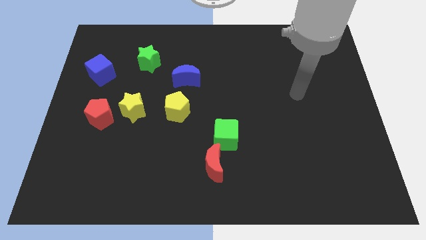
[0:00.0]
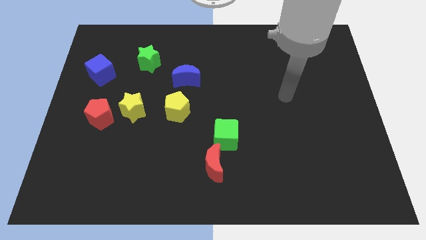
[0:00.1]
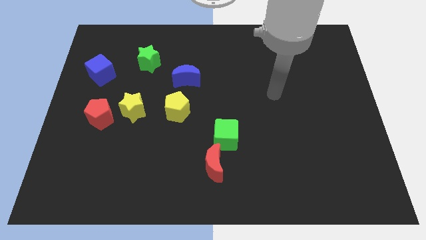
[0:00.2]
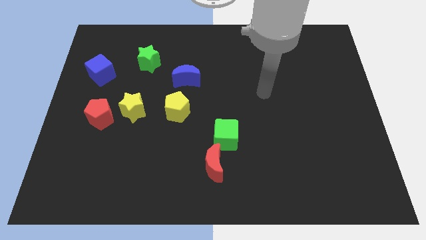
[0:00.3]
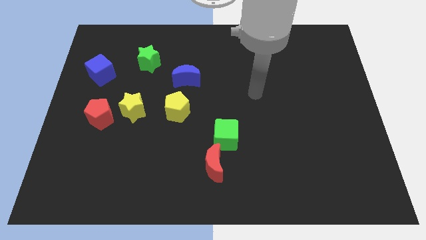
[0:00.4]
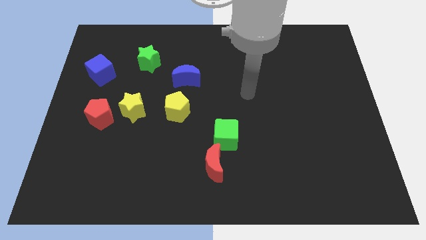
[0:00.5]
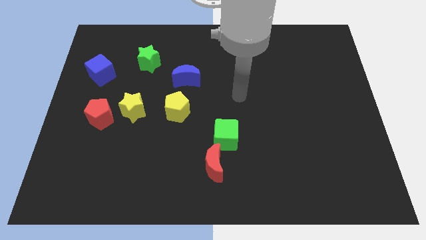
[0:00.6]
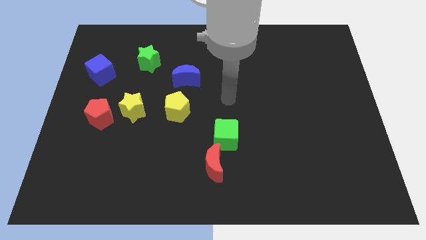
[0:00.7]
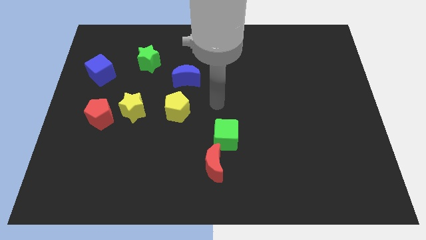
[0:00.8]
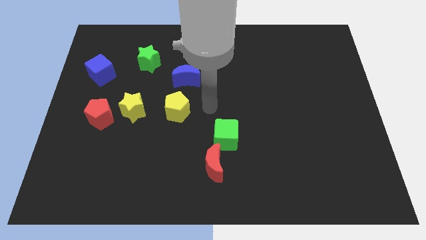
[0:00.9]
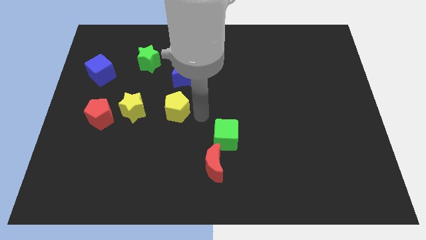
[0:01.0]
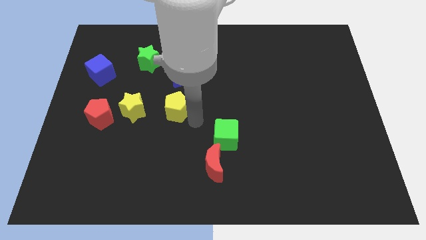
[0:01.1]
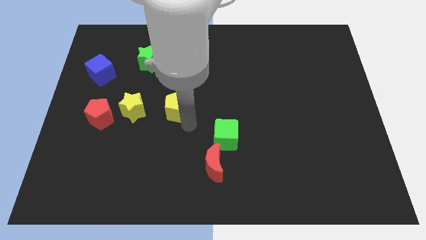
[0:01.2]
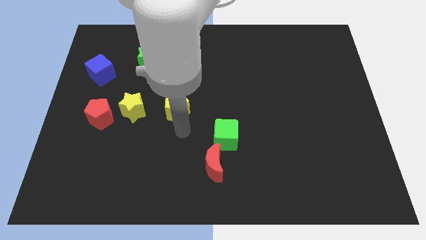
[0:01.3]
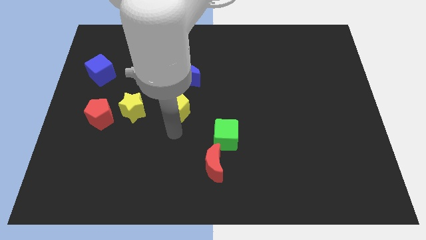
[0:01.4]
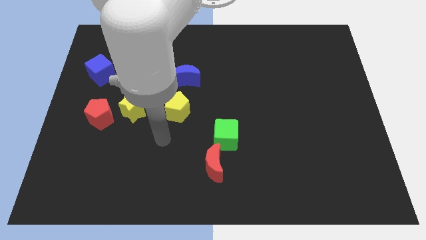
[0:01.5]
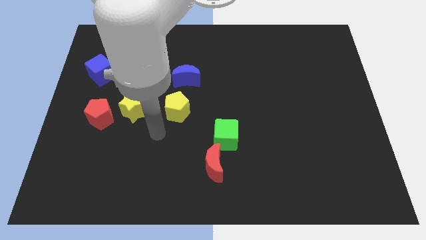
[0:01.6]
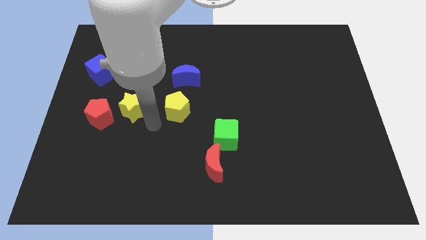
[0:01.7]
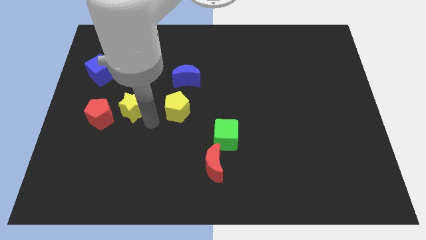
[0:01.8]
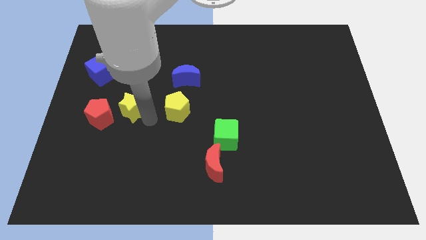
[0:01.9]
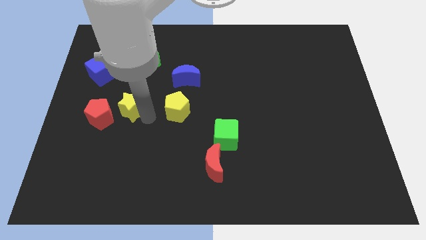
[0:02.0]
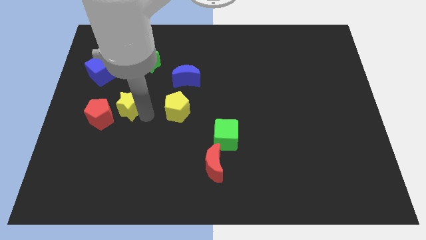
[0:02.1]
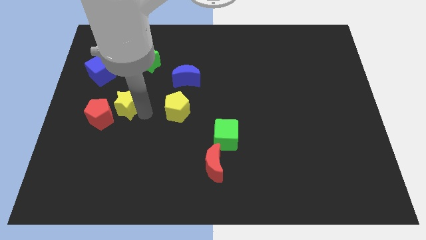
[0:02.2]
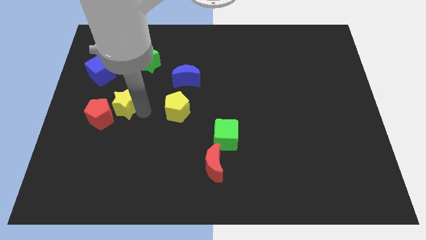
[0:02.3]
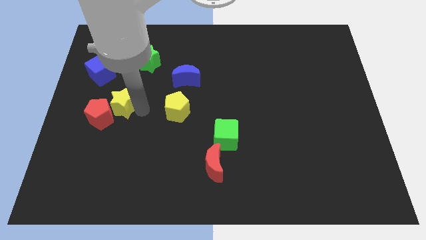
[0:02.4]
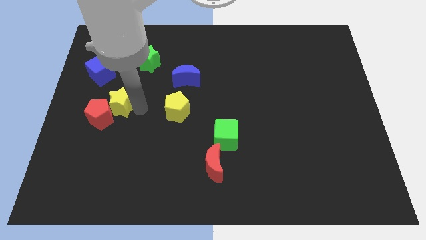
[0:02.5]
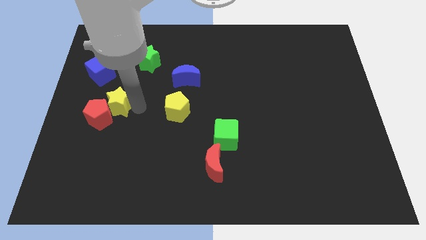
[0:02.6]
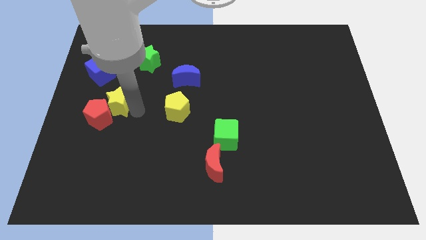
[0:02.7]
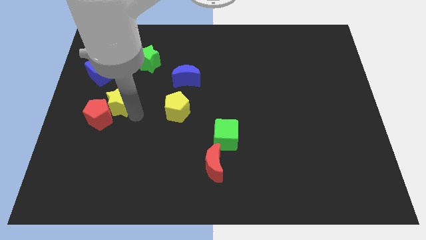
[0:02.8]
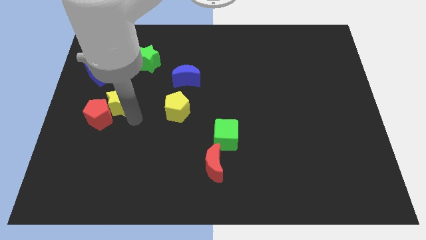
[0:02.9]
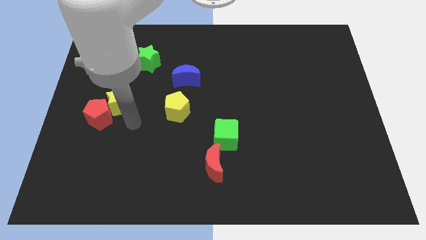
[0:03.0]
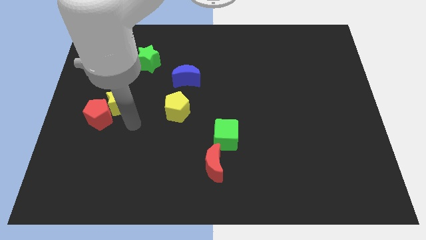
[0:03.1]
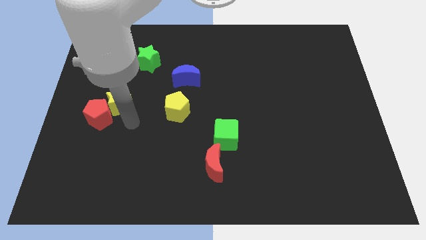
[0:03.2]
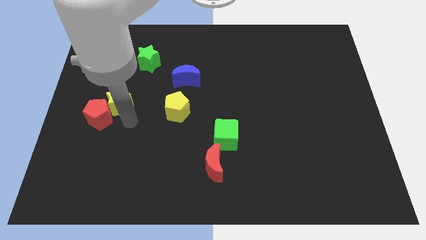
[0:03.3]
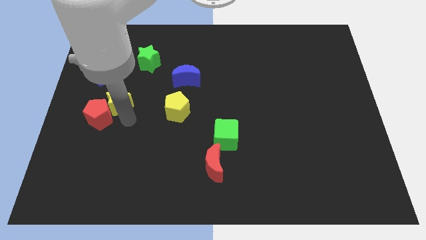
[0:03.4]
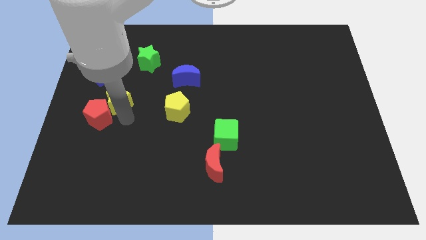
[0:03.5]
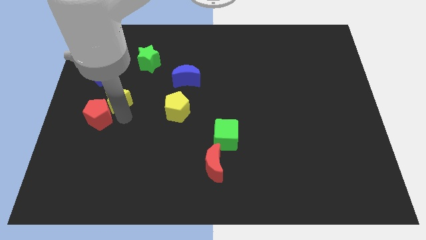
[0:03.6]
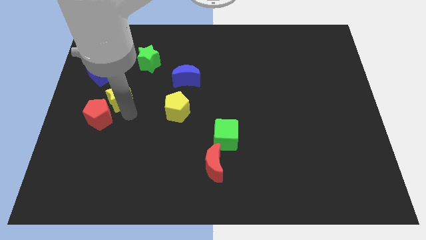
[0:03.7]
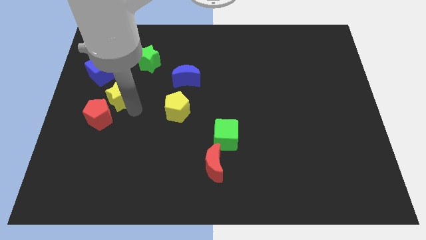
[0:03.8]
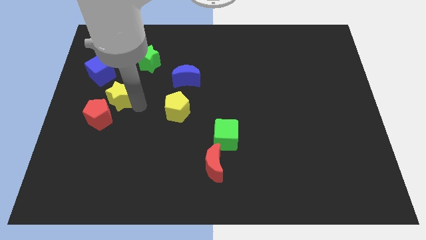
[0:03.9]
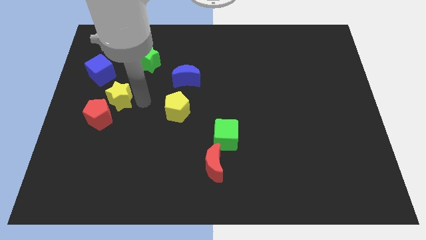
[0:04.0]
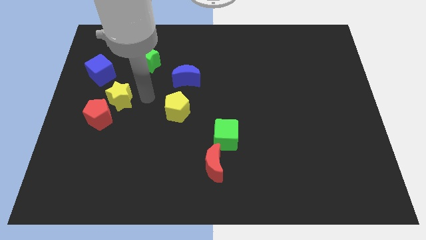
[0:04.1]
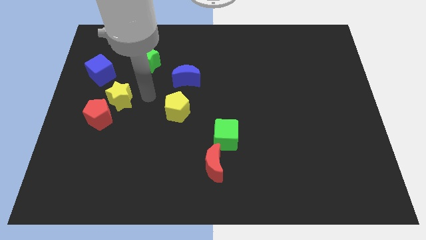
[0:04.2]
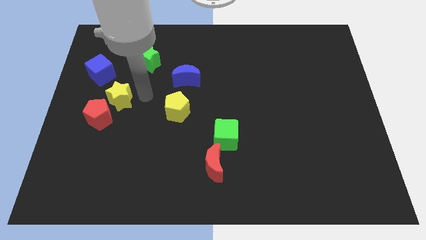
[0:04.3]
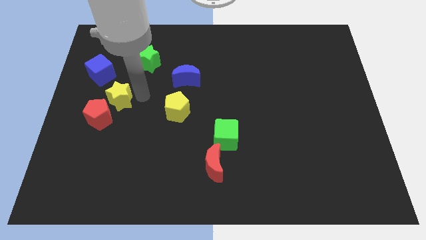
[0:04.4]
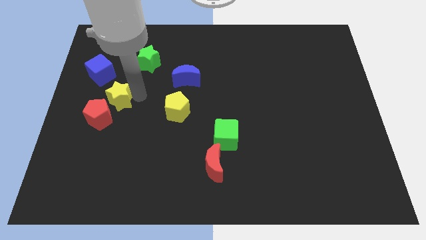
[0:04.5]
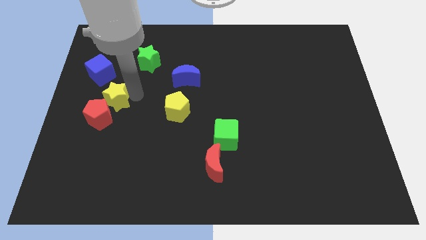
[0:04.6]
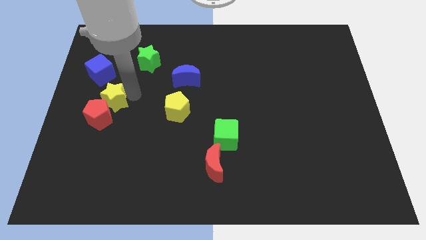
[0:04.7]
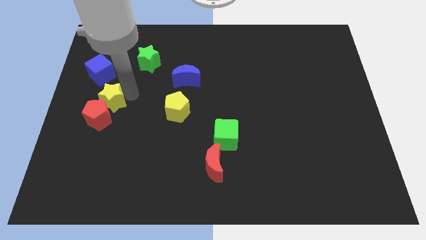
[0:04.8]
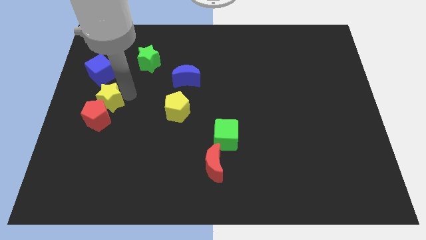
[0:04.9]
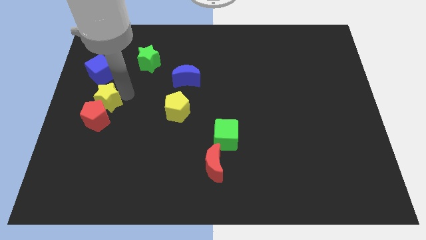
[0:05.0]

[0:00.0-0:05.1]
move the yellow star to the left side

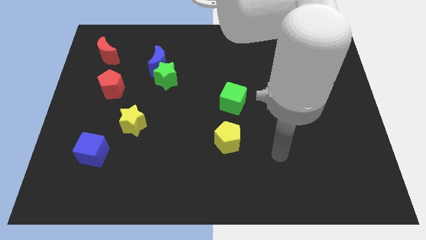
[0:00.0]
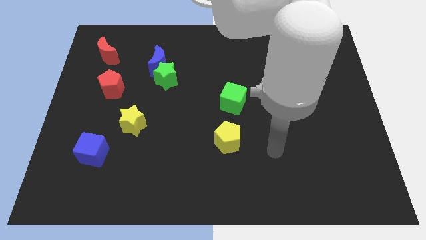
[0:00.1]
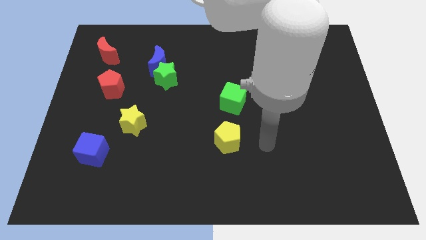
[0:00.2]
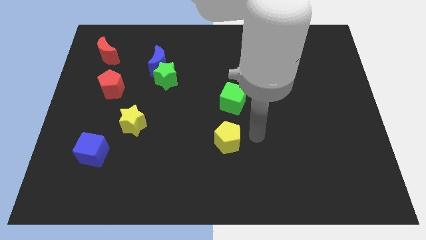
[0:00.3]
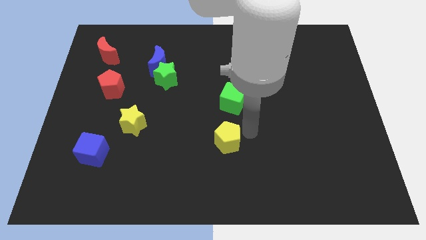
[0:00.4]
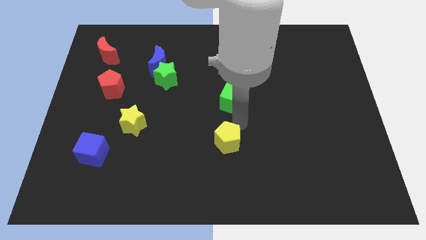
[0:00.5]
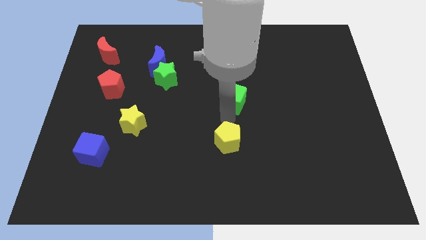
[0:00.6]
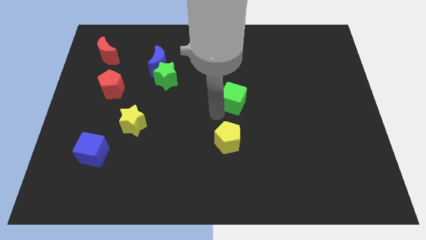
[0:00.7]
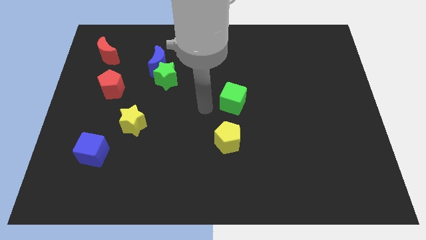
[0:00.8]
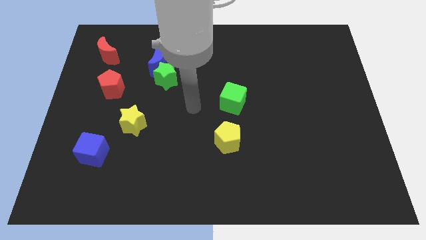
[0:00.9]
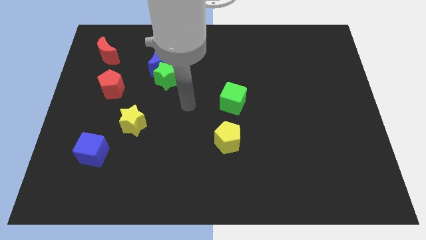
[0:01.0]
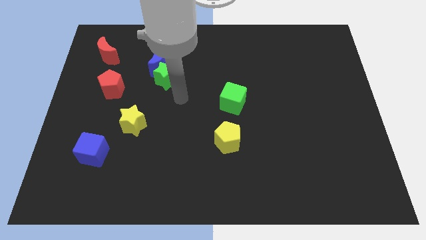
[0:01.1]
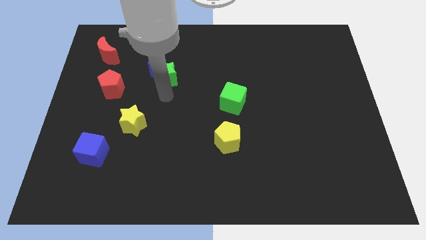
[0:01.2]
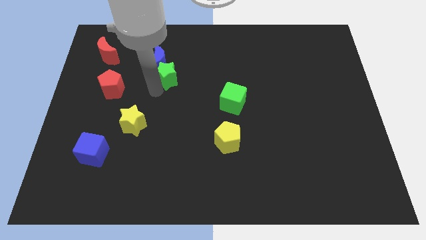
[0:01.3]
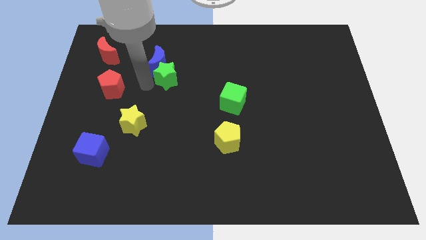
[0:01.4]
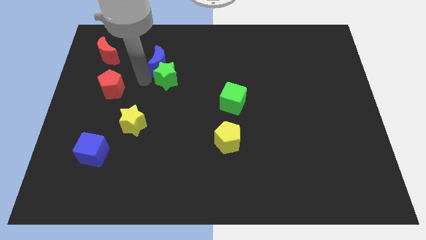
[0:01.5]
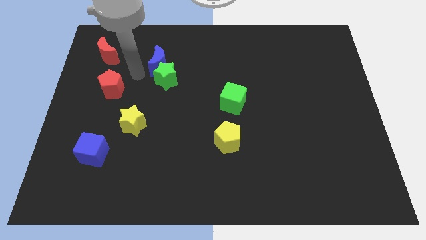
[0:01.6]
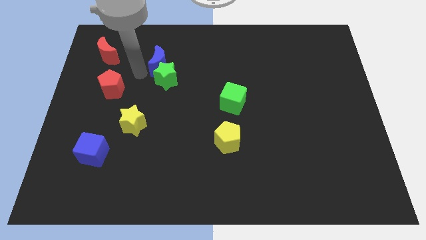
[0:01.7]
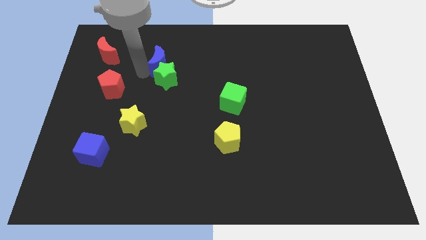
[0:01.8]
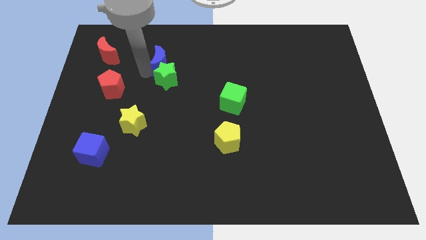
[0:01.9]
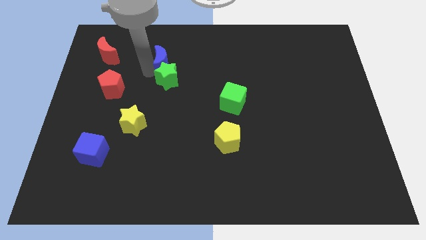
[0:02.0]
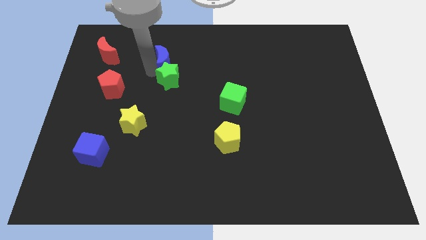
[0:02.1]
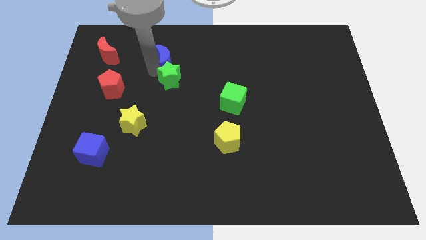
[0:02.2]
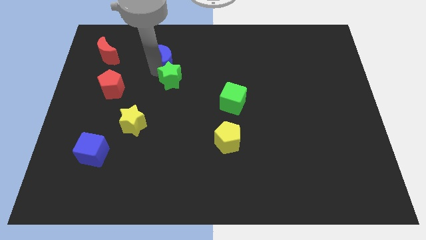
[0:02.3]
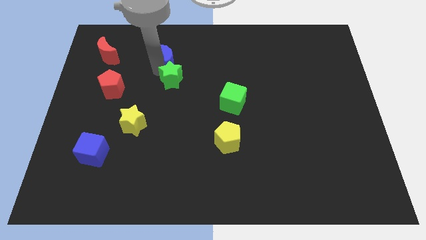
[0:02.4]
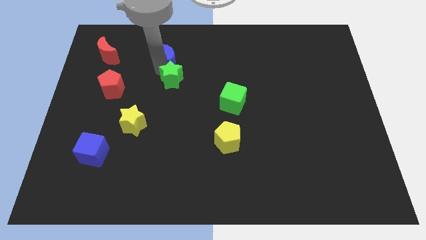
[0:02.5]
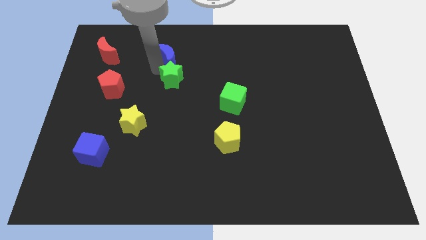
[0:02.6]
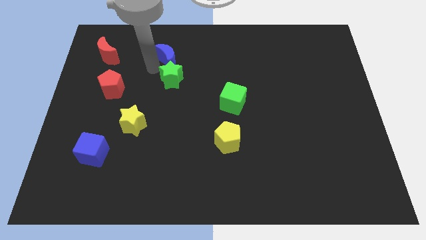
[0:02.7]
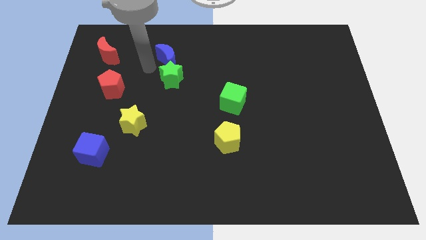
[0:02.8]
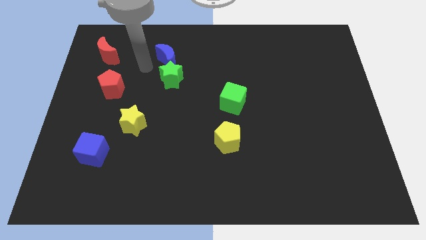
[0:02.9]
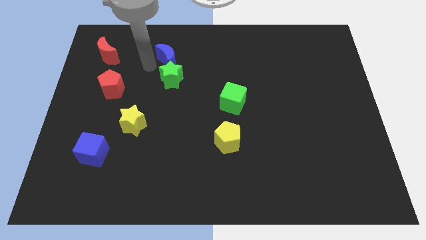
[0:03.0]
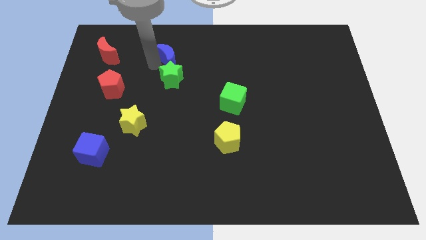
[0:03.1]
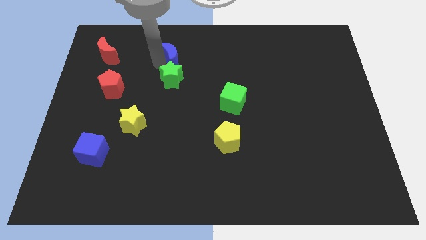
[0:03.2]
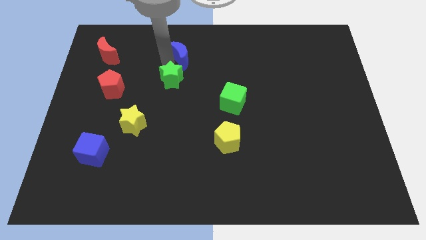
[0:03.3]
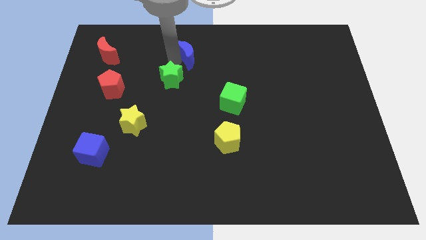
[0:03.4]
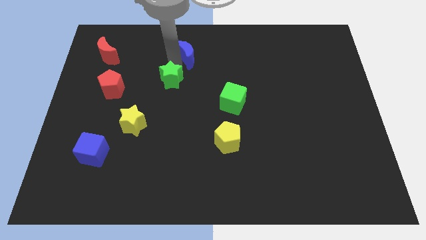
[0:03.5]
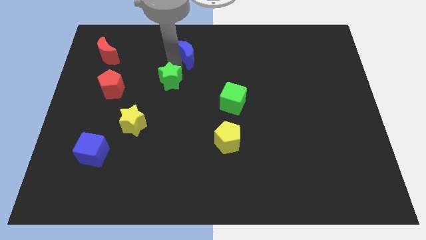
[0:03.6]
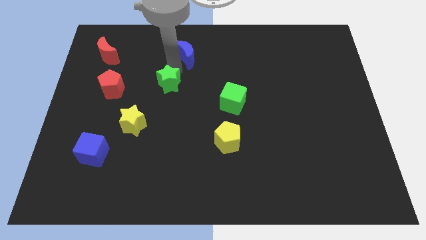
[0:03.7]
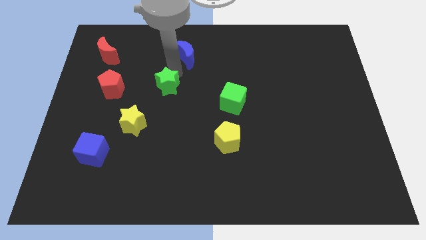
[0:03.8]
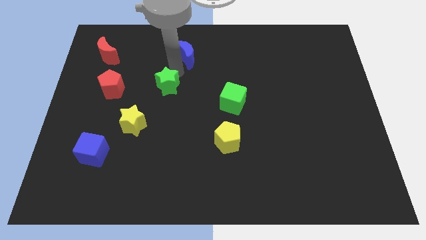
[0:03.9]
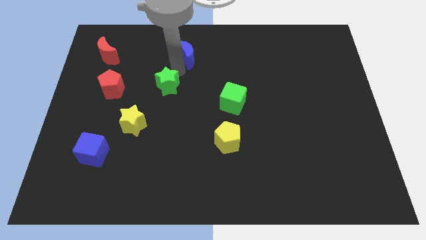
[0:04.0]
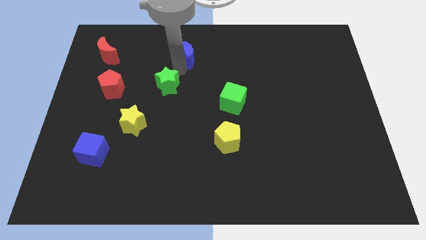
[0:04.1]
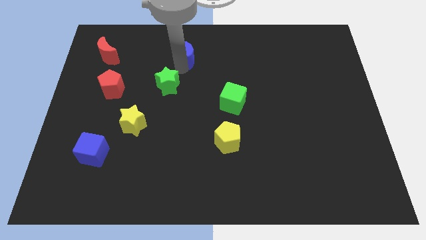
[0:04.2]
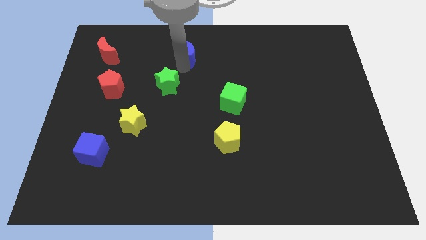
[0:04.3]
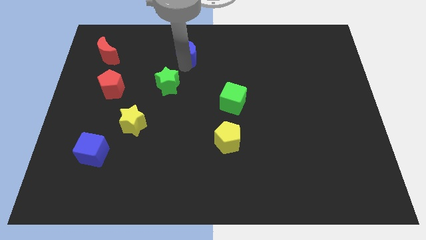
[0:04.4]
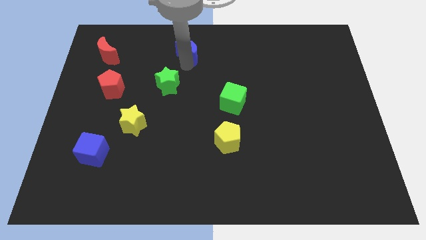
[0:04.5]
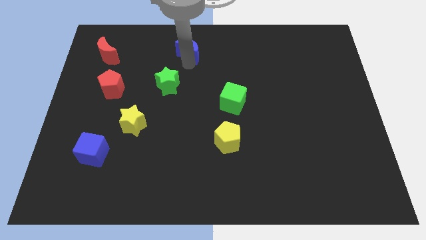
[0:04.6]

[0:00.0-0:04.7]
put the blue moon to the towards your base
